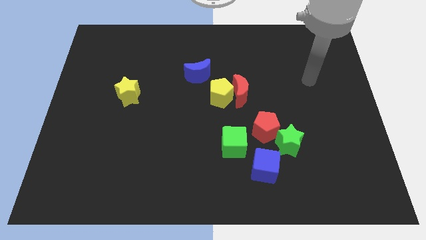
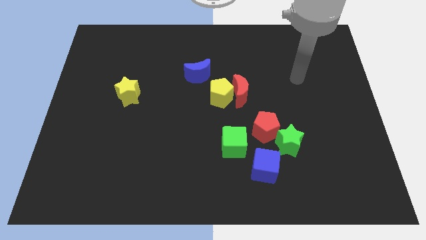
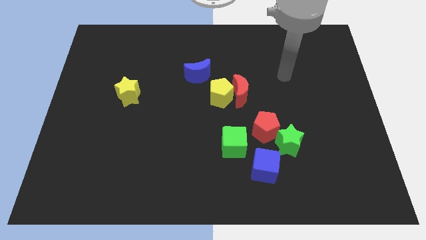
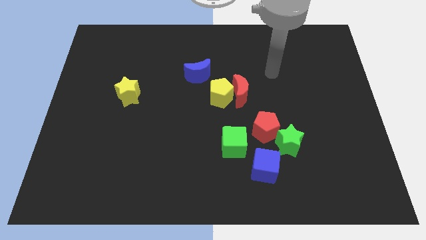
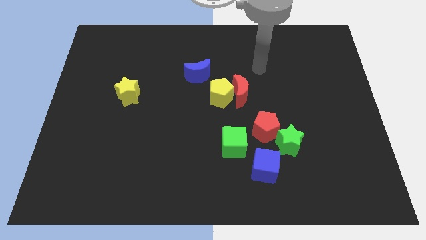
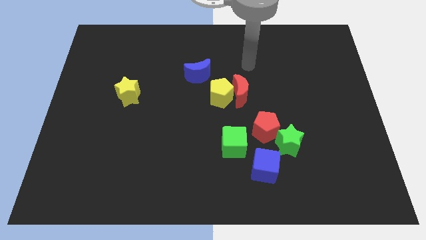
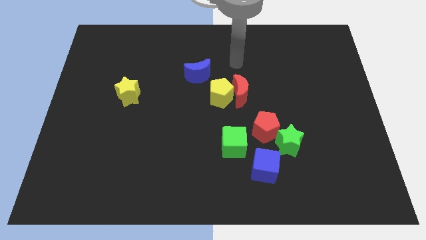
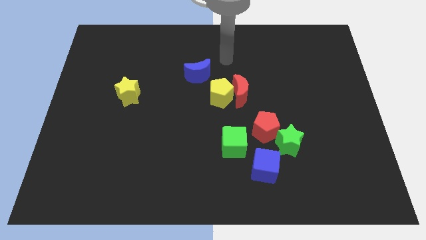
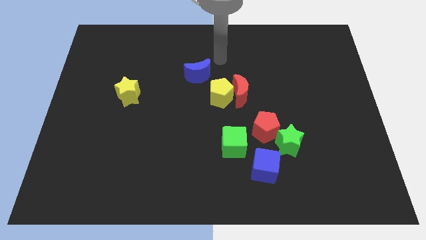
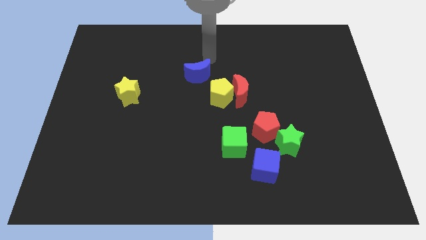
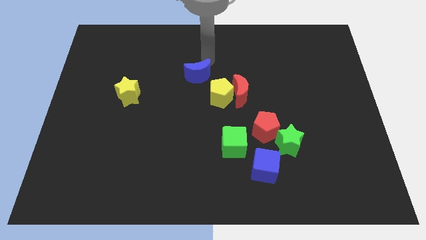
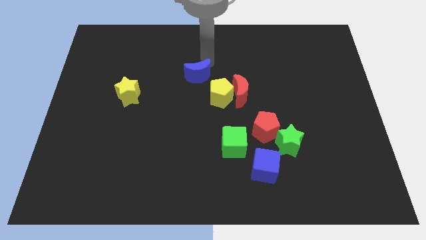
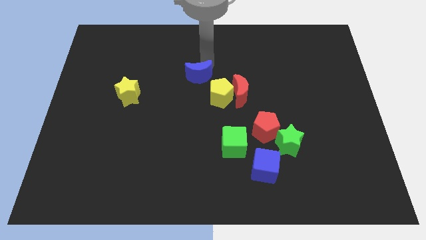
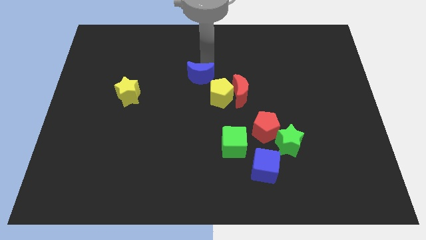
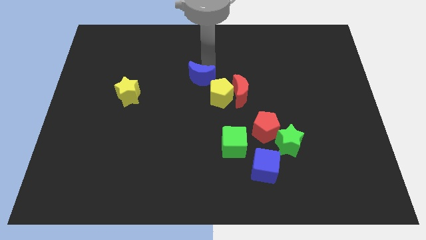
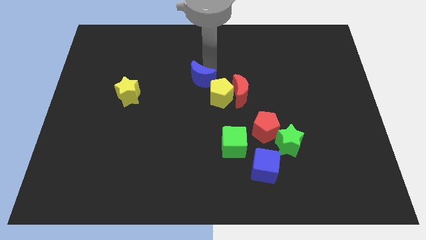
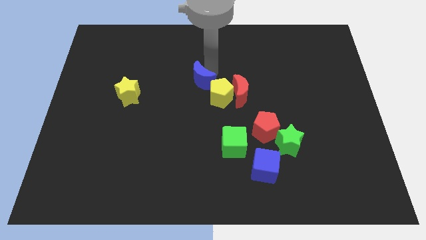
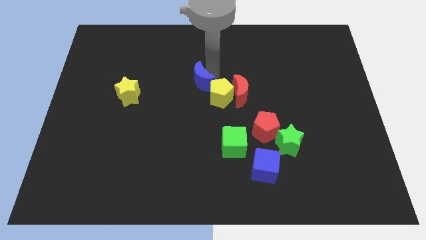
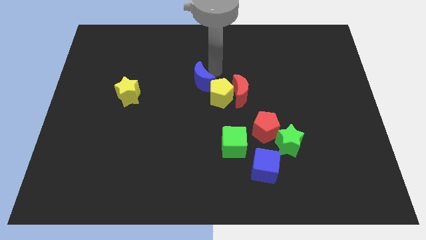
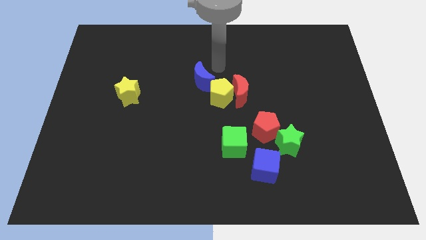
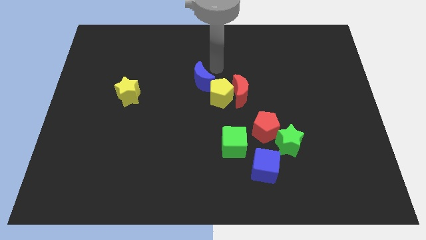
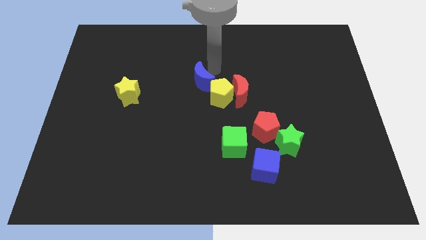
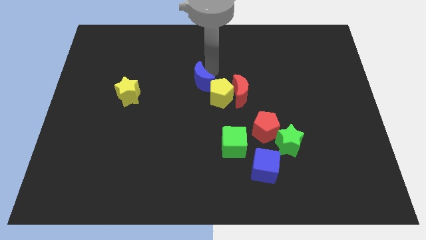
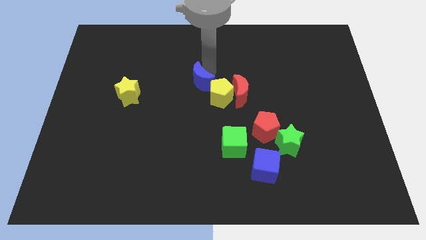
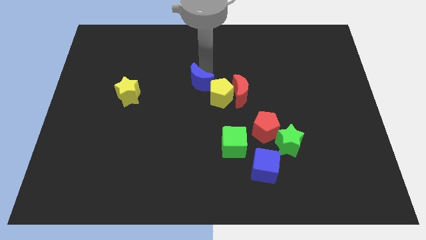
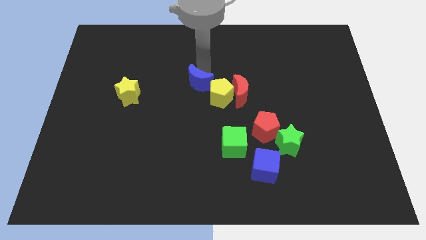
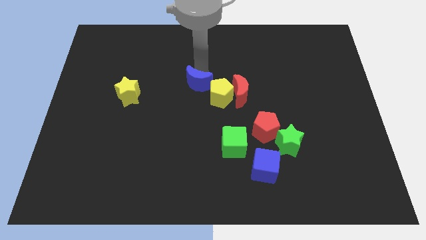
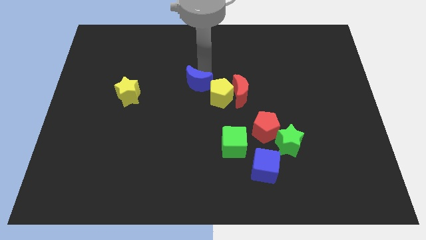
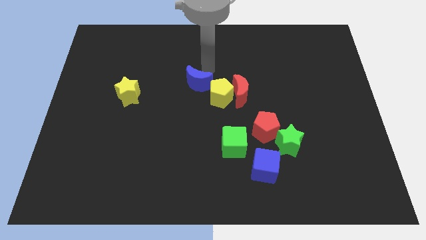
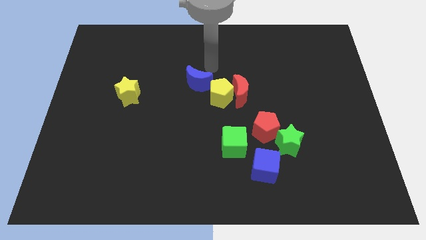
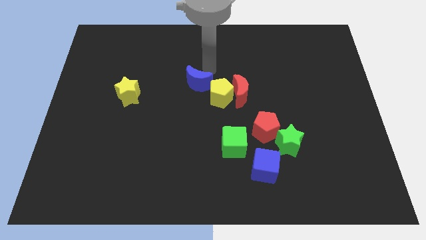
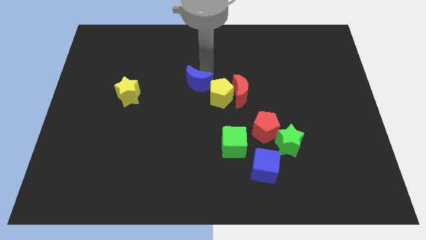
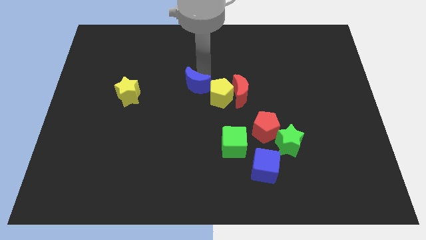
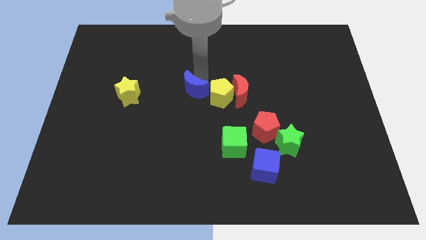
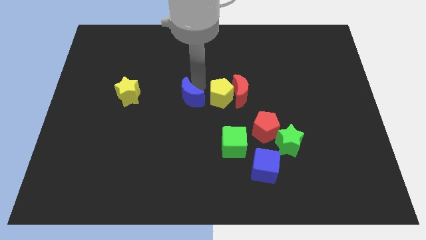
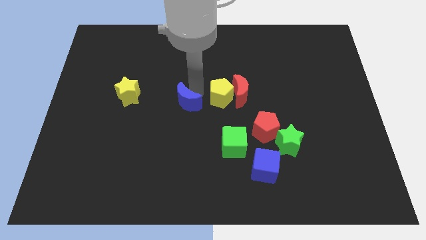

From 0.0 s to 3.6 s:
slide the blue moon downwards and left a little bit

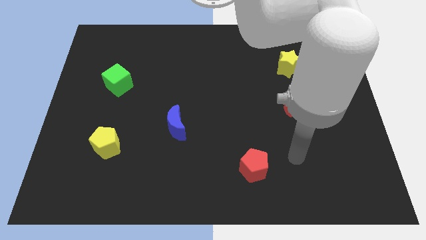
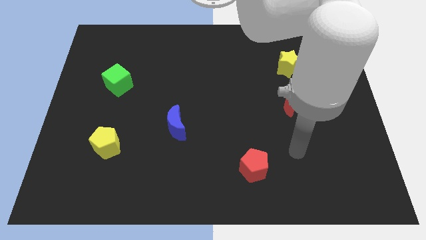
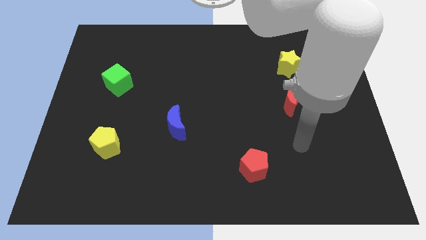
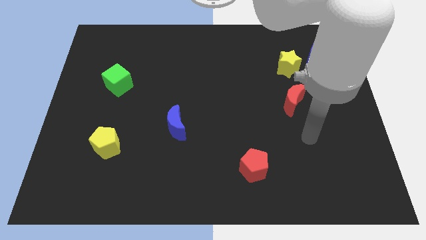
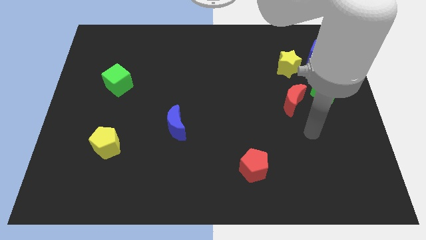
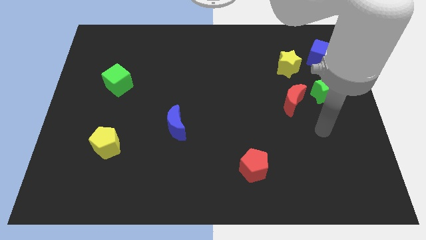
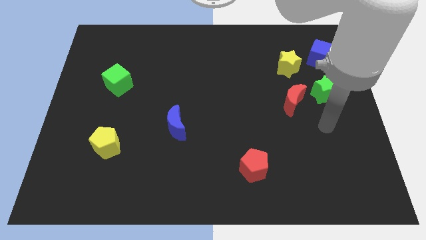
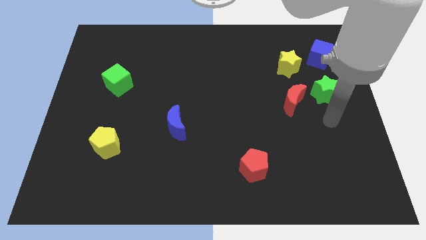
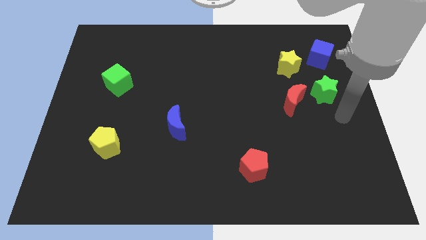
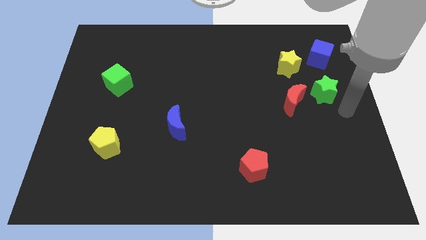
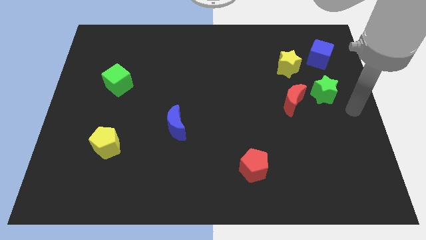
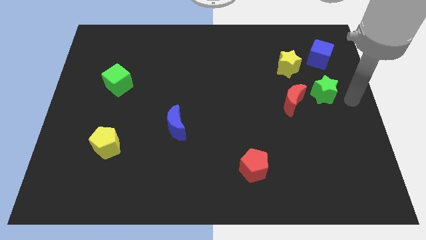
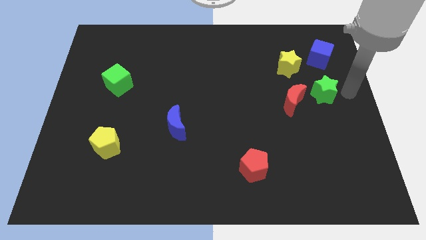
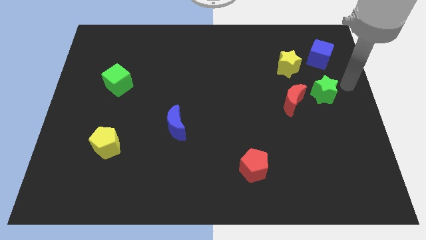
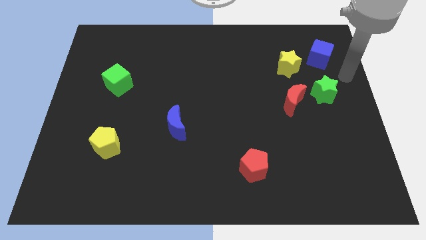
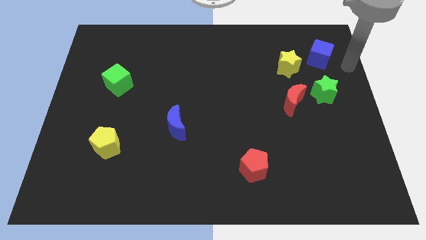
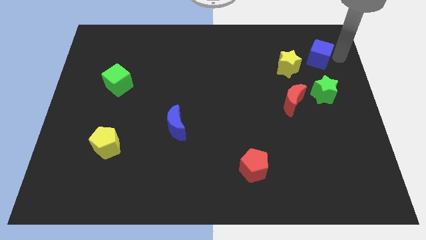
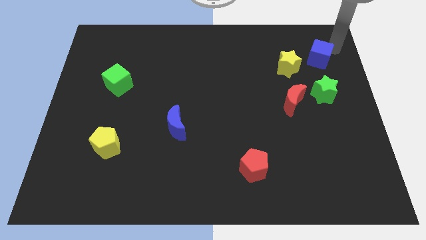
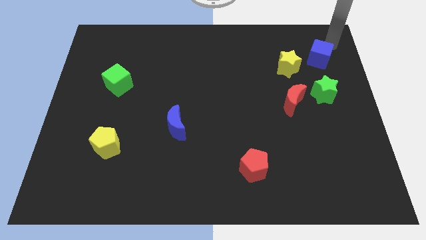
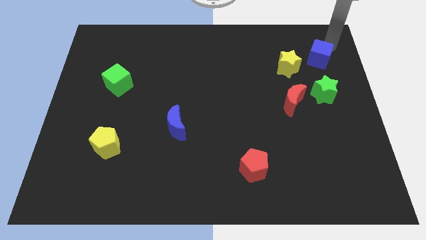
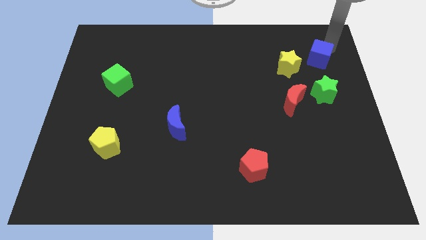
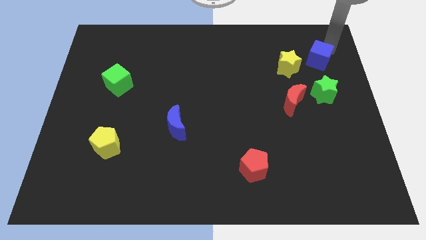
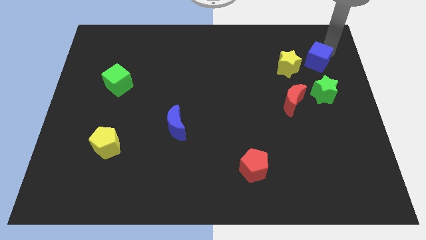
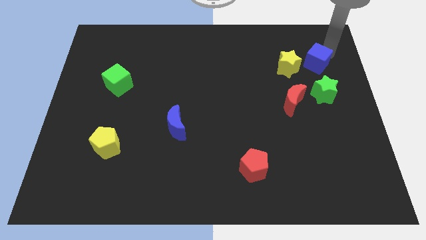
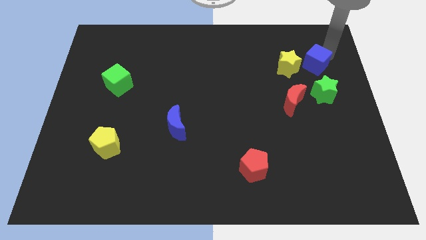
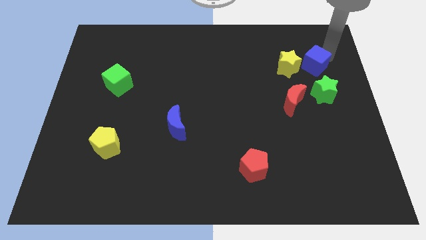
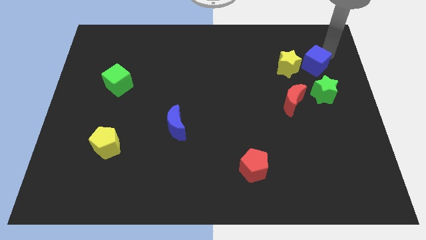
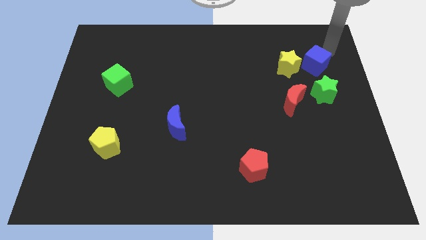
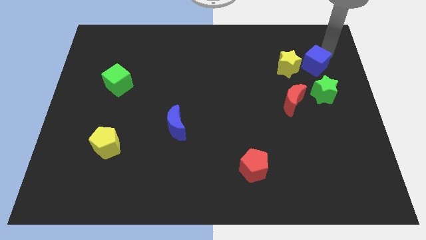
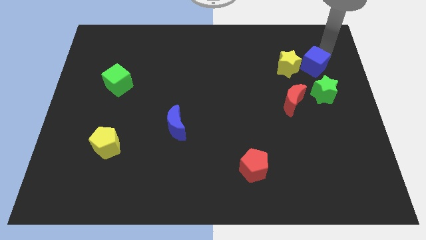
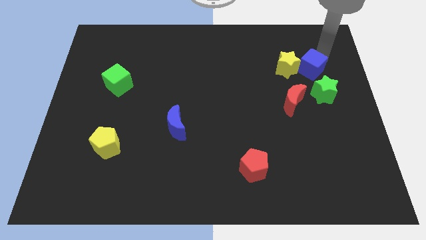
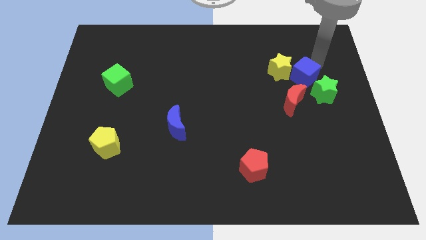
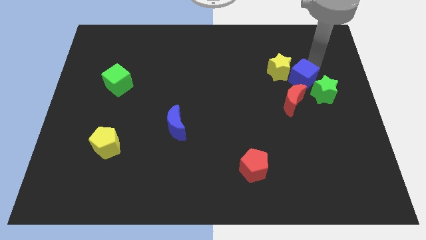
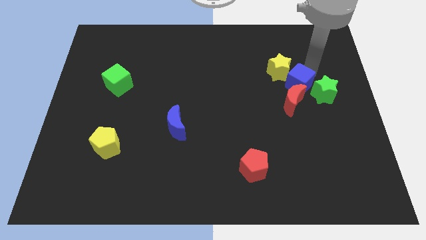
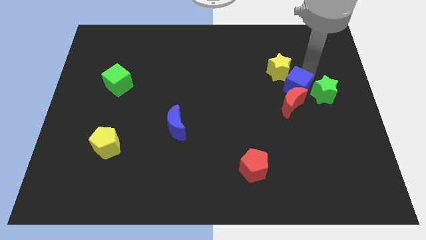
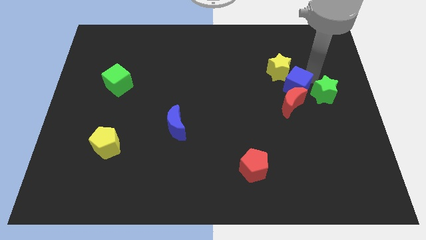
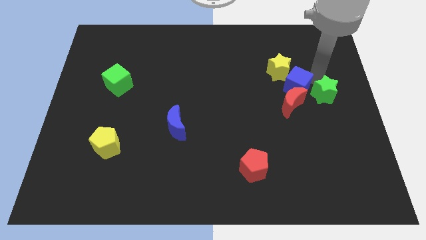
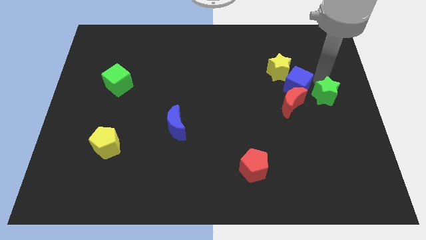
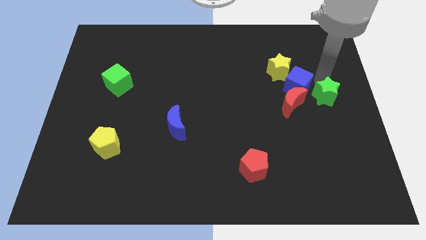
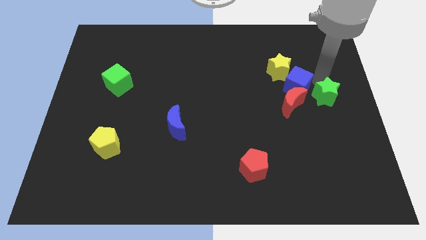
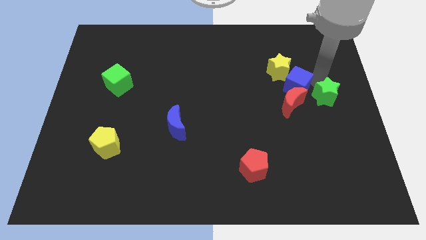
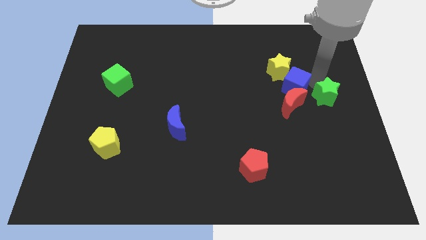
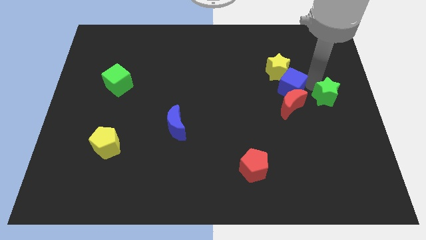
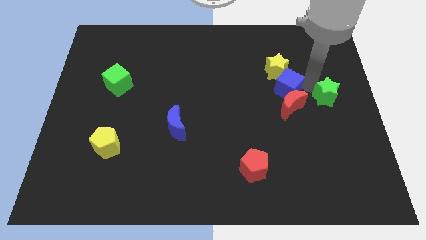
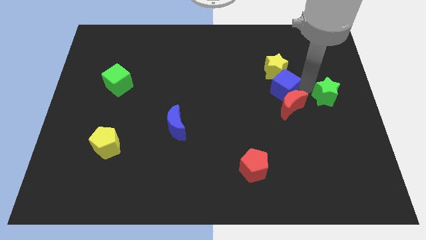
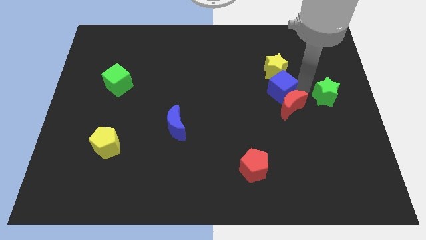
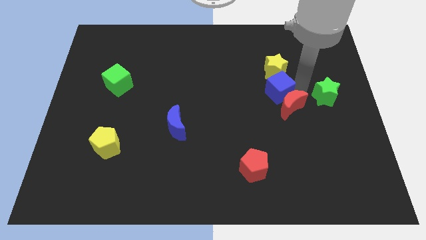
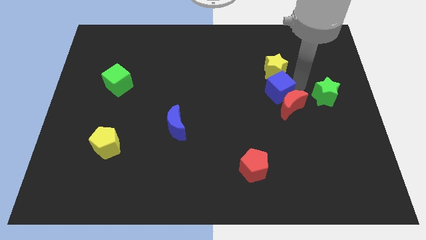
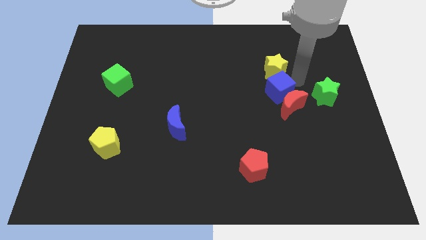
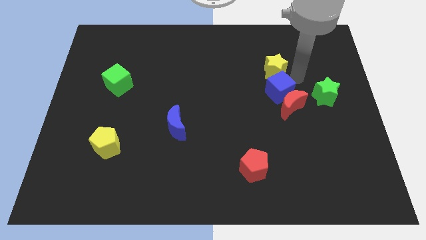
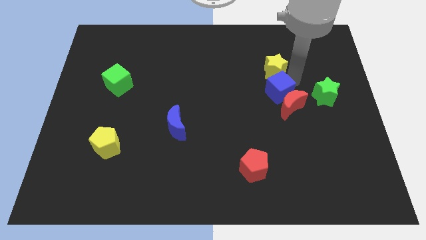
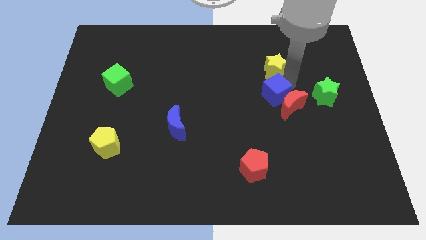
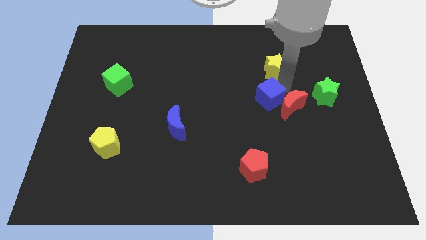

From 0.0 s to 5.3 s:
push the blue cube downwards and to the left diagonally
